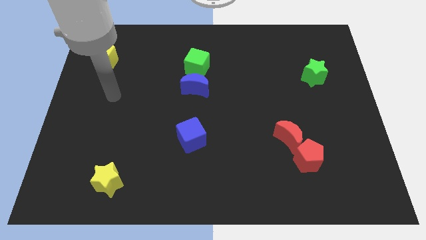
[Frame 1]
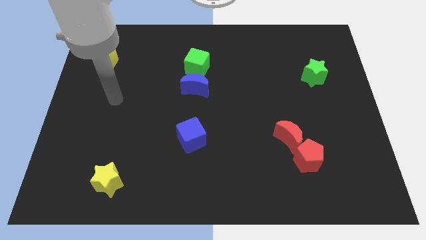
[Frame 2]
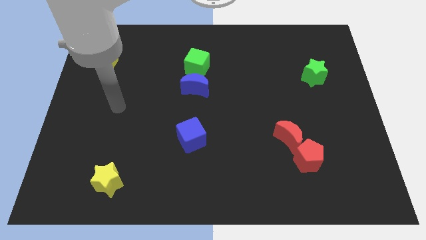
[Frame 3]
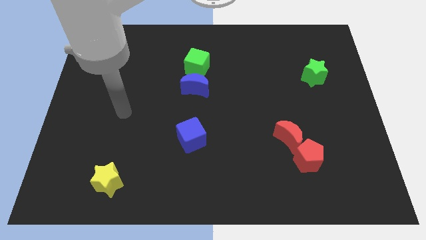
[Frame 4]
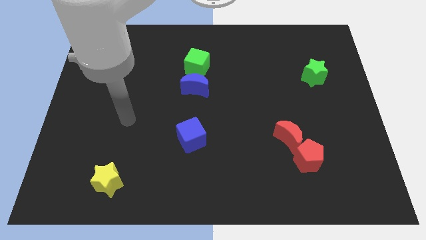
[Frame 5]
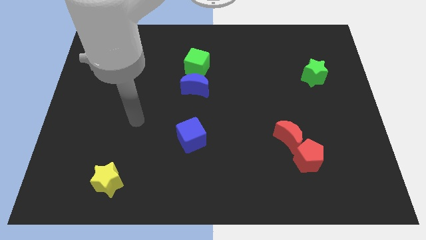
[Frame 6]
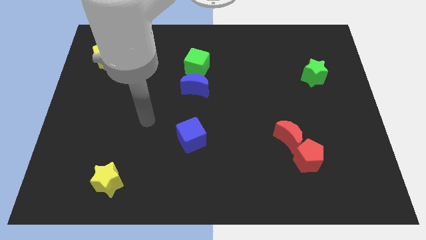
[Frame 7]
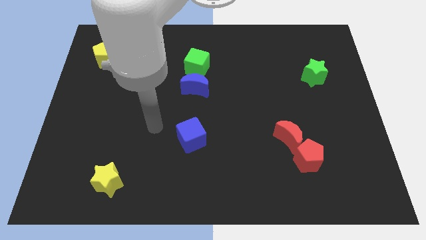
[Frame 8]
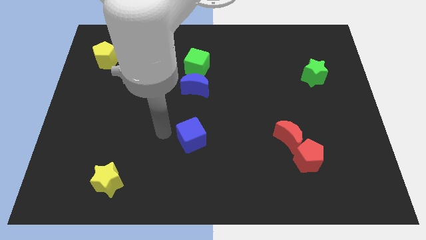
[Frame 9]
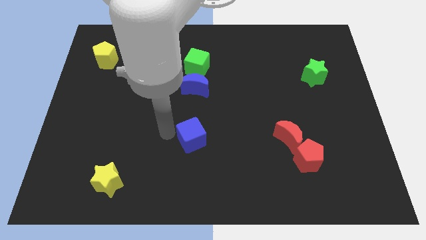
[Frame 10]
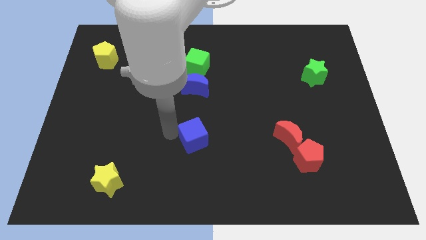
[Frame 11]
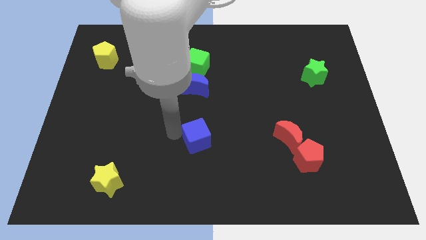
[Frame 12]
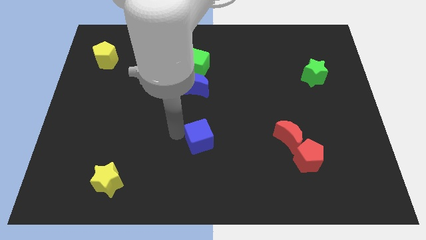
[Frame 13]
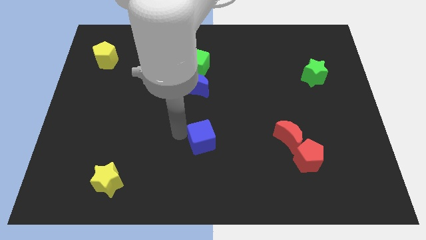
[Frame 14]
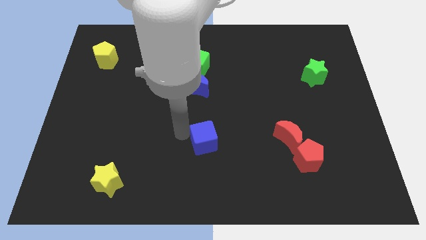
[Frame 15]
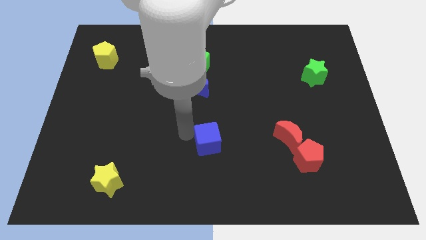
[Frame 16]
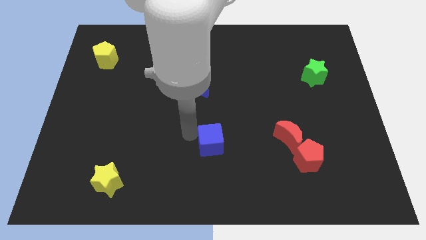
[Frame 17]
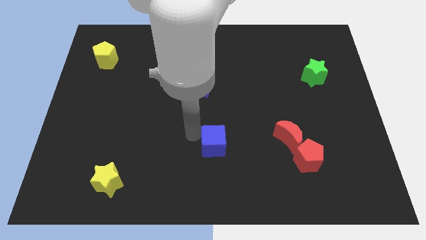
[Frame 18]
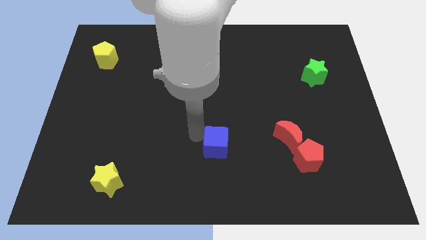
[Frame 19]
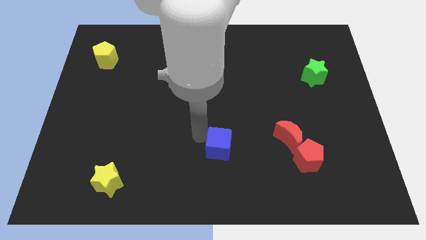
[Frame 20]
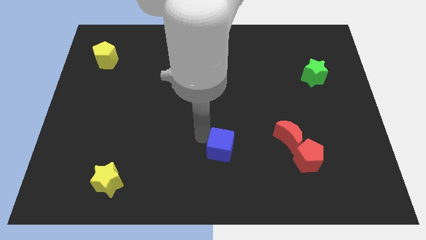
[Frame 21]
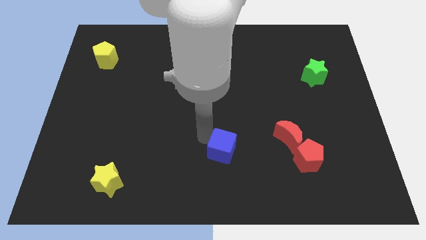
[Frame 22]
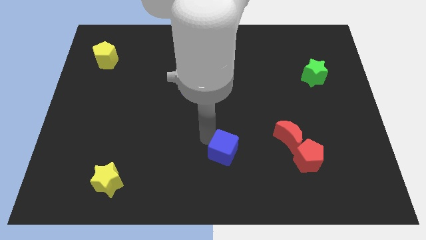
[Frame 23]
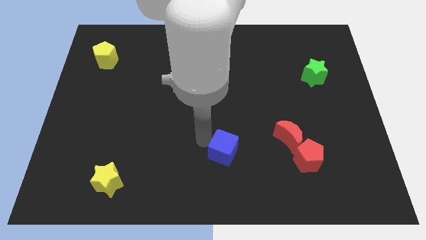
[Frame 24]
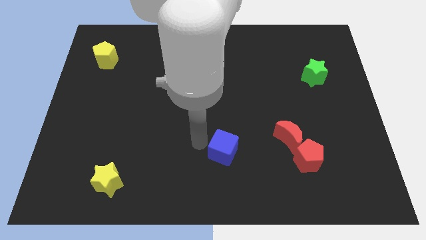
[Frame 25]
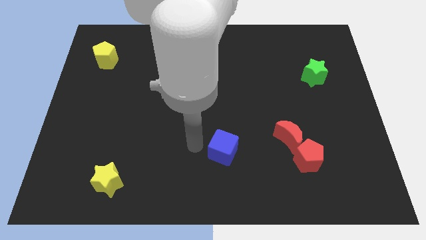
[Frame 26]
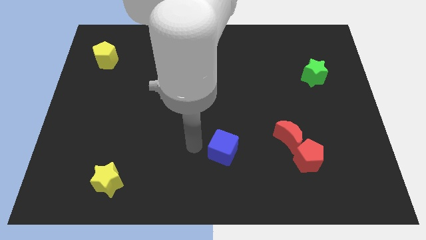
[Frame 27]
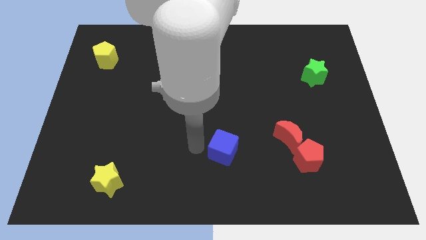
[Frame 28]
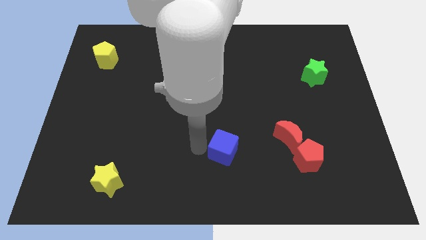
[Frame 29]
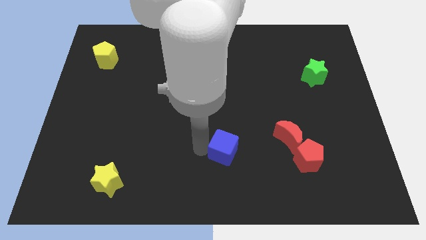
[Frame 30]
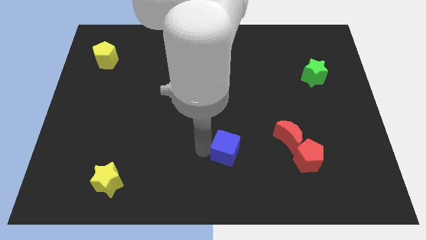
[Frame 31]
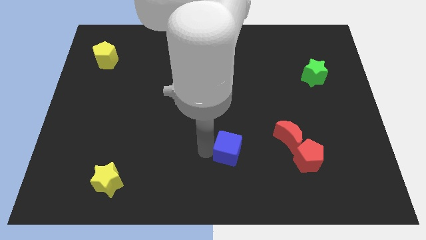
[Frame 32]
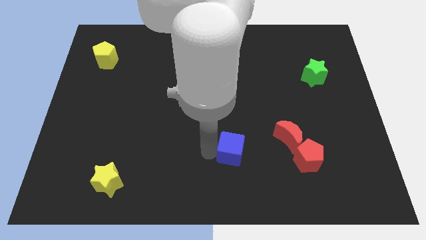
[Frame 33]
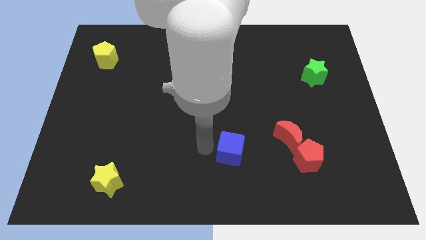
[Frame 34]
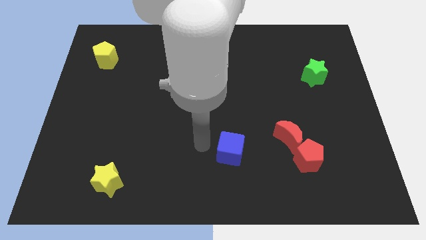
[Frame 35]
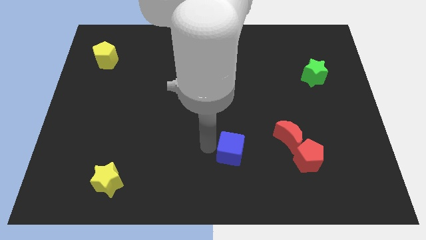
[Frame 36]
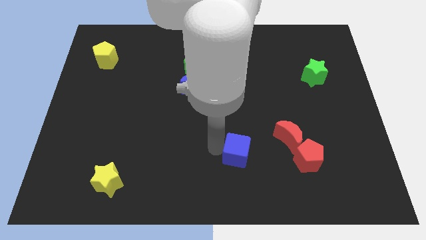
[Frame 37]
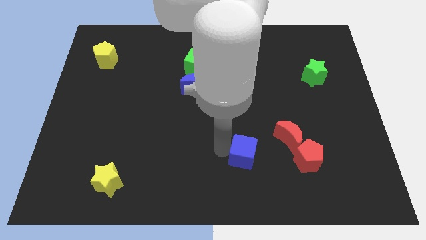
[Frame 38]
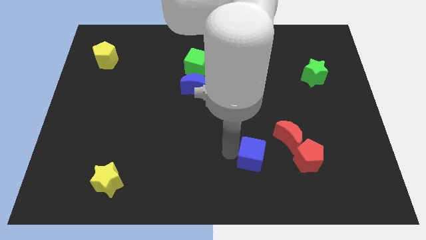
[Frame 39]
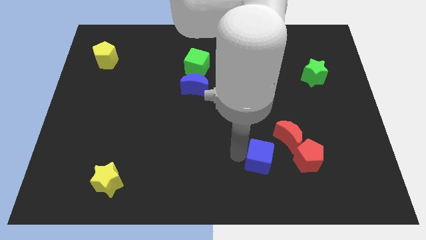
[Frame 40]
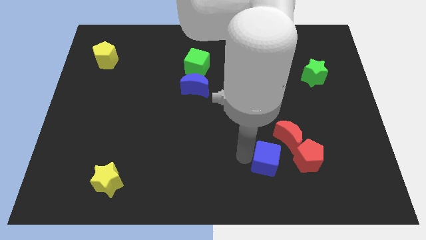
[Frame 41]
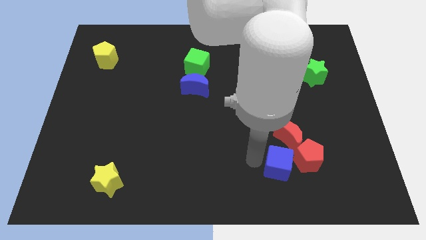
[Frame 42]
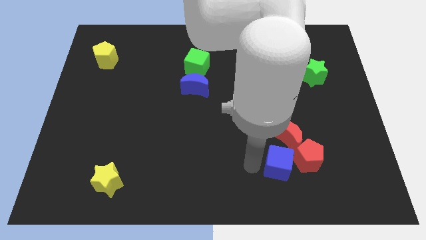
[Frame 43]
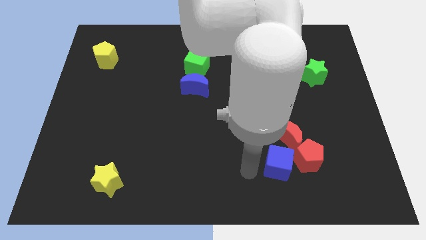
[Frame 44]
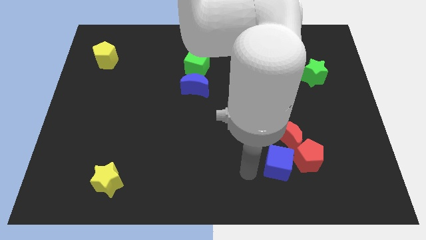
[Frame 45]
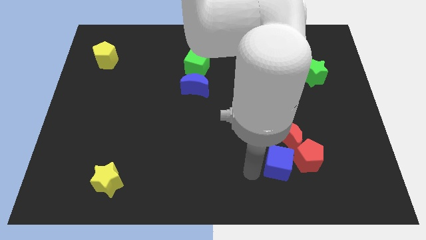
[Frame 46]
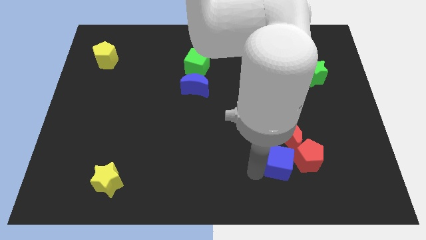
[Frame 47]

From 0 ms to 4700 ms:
move the blue cube towards the red pentagon

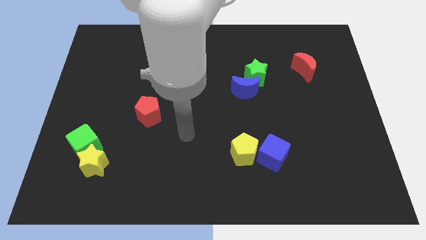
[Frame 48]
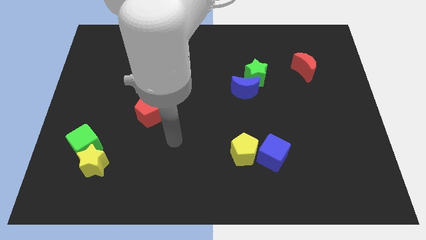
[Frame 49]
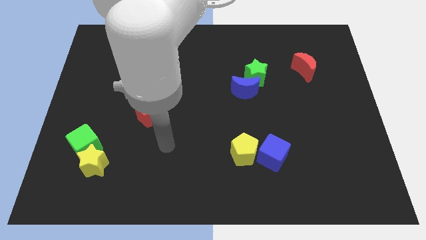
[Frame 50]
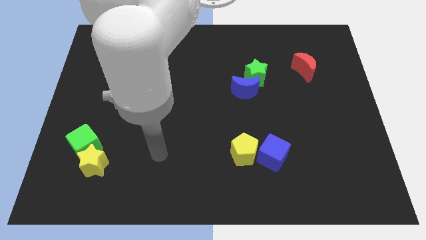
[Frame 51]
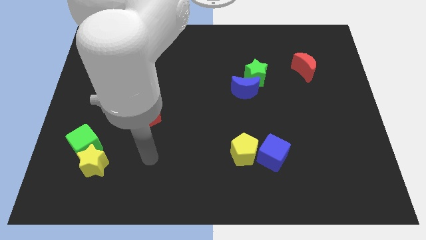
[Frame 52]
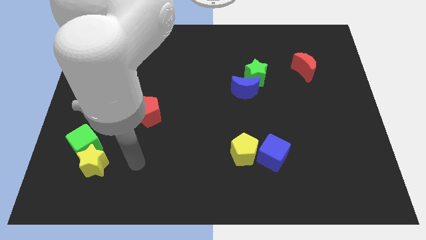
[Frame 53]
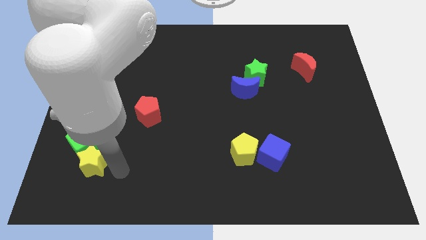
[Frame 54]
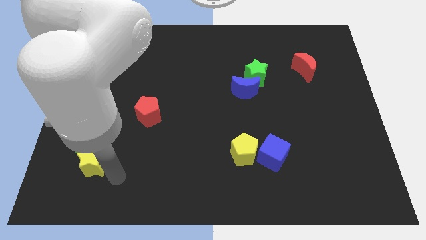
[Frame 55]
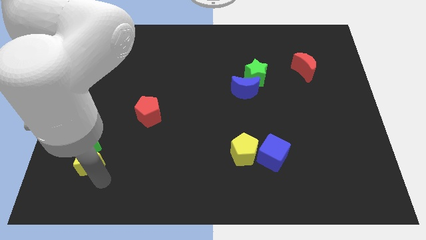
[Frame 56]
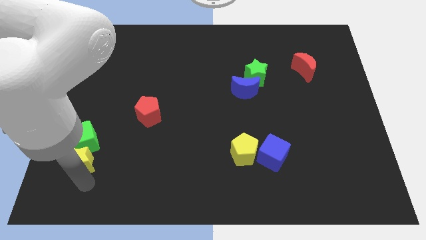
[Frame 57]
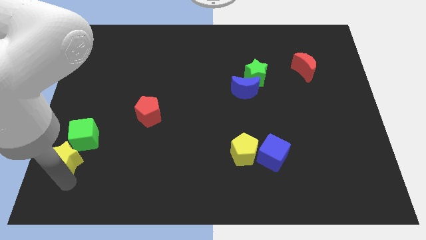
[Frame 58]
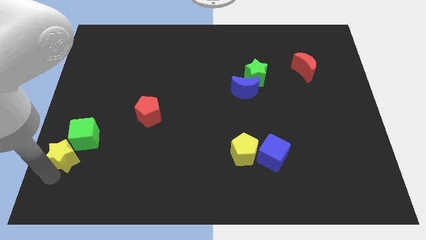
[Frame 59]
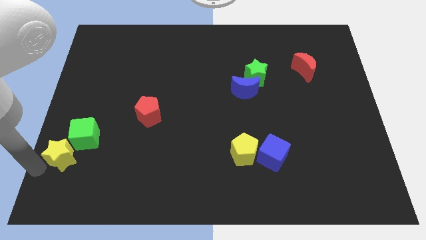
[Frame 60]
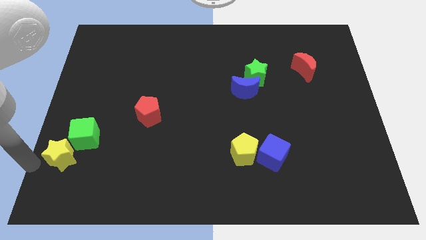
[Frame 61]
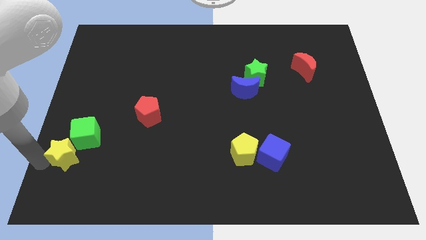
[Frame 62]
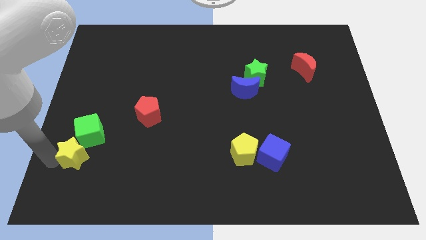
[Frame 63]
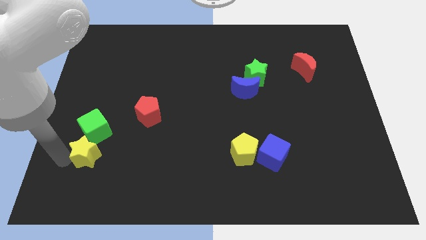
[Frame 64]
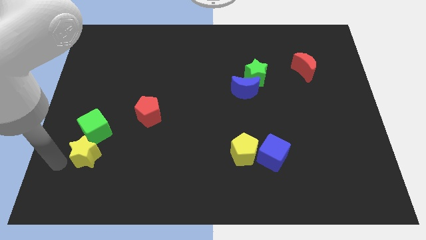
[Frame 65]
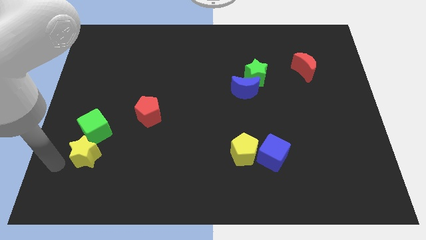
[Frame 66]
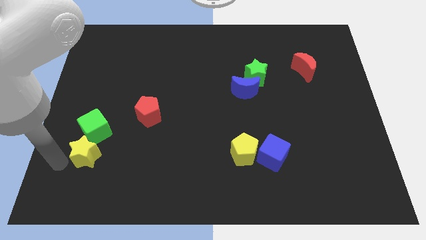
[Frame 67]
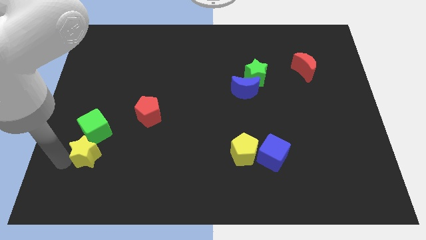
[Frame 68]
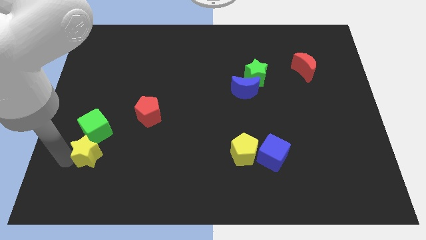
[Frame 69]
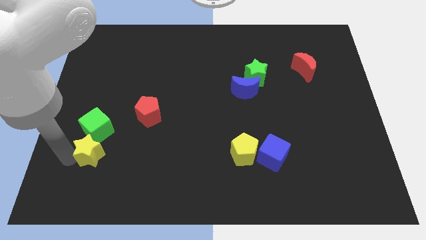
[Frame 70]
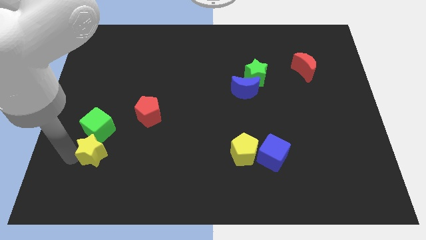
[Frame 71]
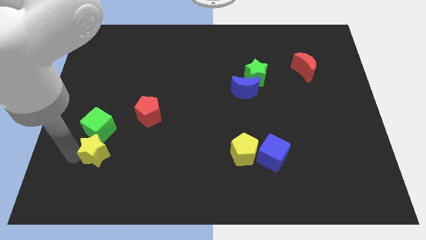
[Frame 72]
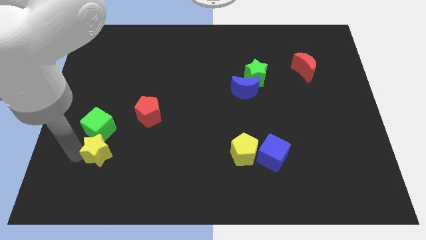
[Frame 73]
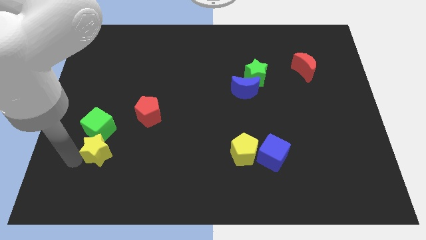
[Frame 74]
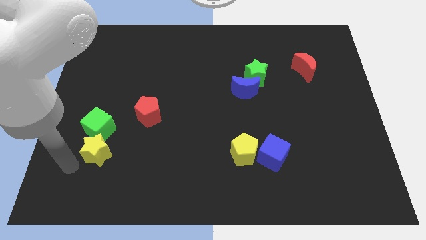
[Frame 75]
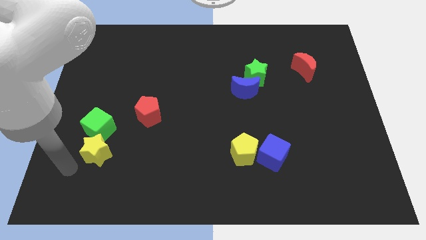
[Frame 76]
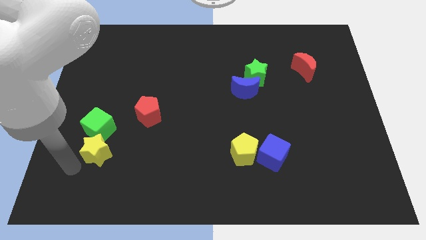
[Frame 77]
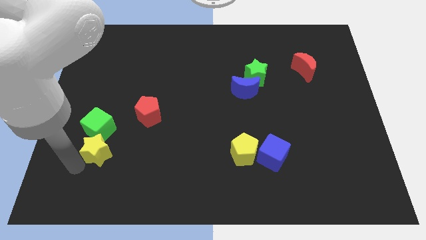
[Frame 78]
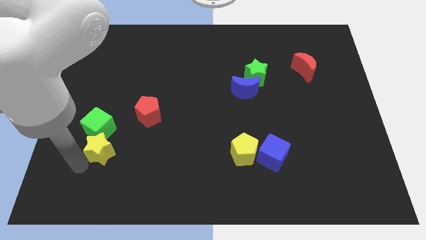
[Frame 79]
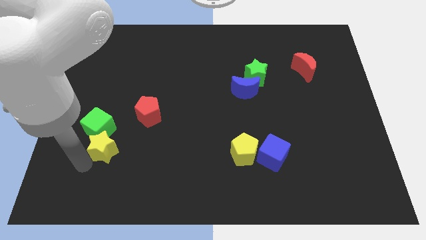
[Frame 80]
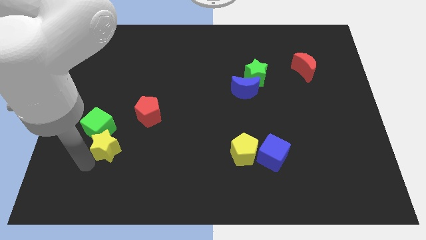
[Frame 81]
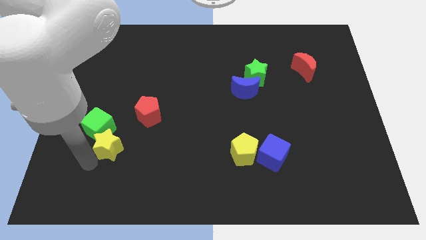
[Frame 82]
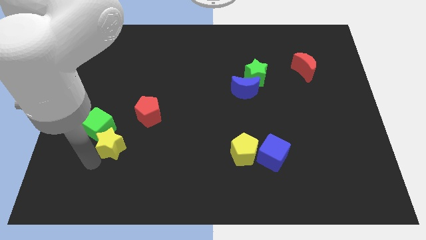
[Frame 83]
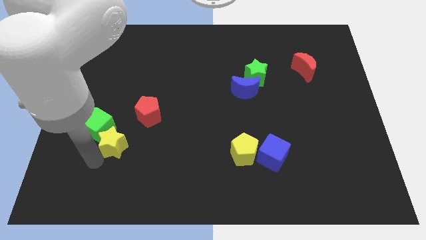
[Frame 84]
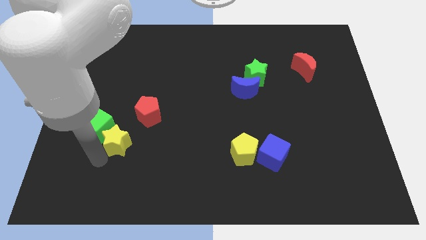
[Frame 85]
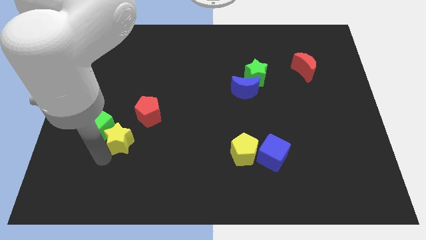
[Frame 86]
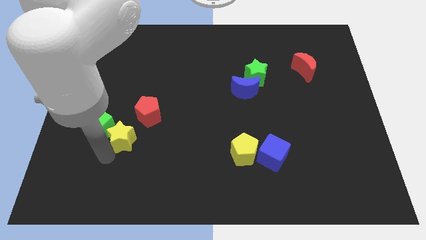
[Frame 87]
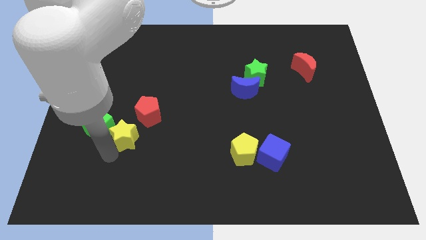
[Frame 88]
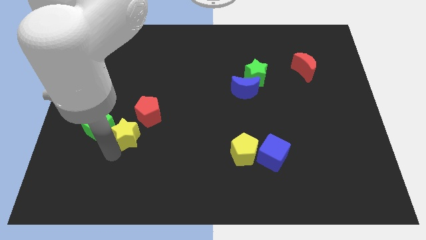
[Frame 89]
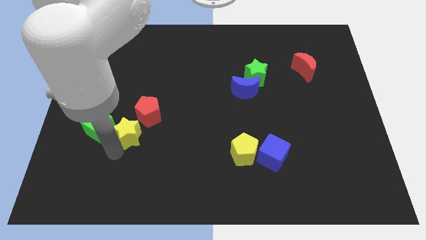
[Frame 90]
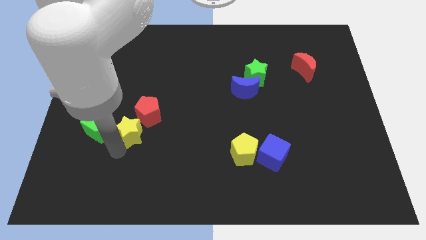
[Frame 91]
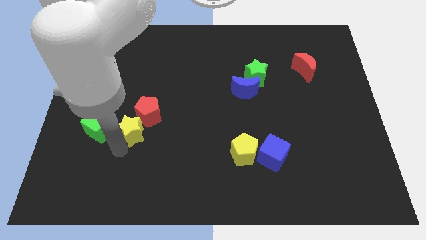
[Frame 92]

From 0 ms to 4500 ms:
push the yellow star to the red pentagon
